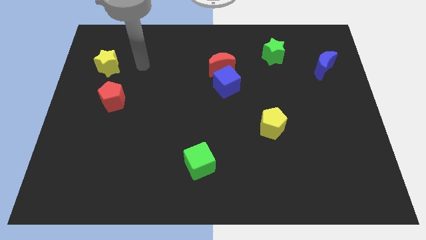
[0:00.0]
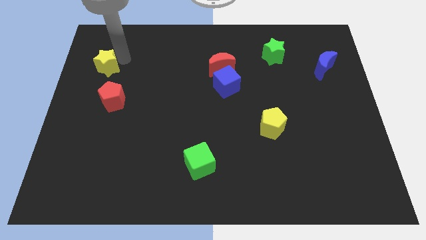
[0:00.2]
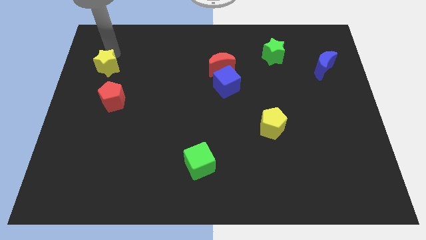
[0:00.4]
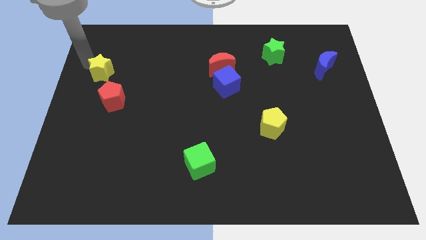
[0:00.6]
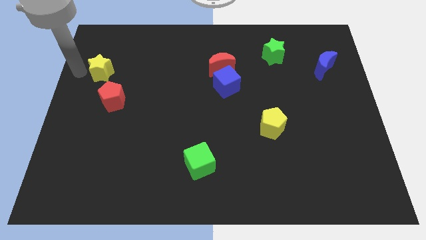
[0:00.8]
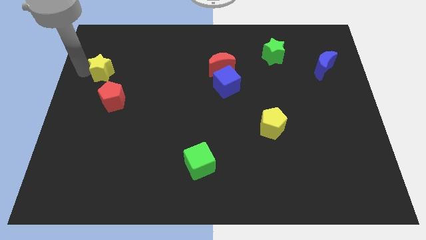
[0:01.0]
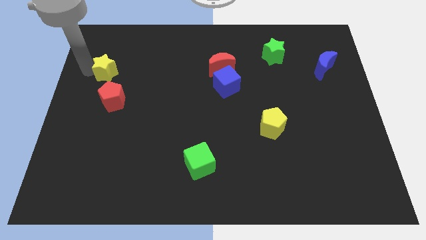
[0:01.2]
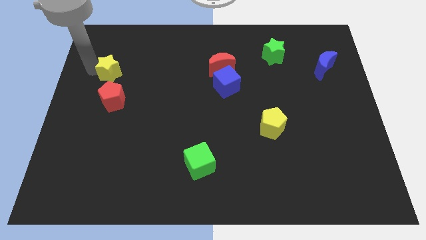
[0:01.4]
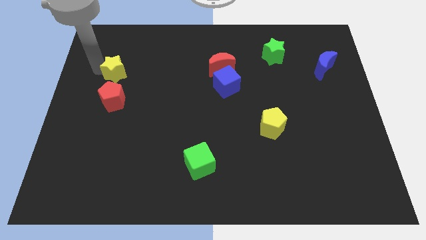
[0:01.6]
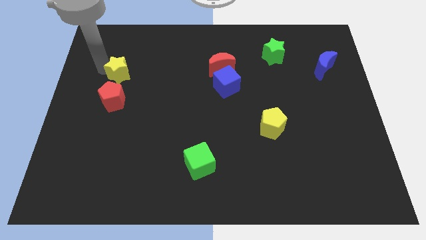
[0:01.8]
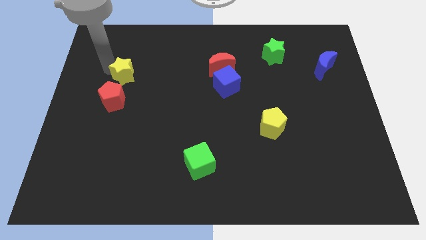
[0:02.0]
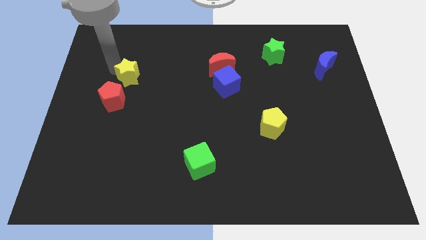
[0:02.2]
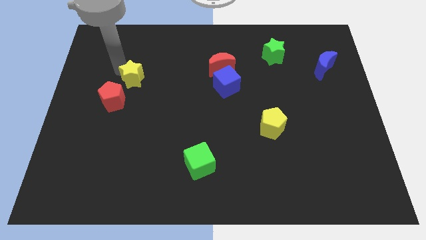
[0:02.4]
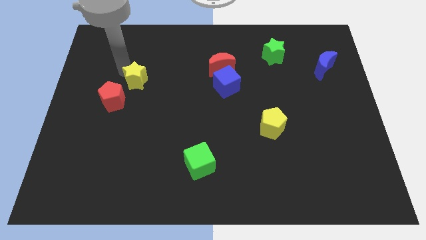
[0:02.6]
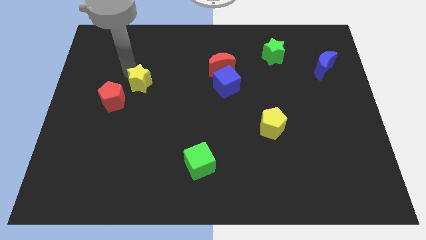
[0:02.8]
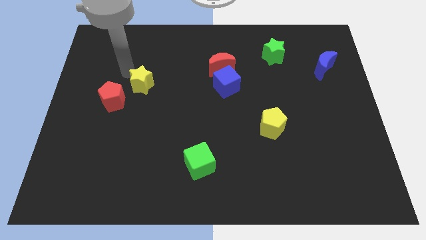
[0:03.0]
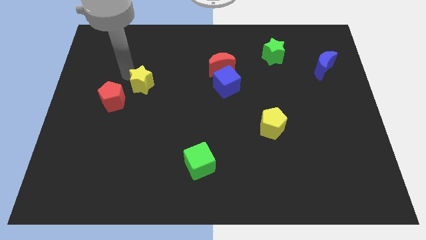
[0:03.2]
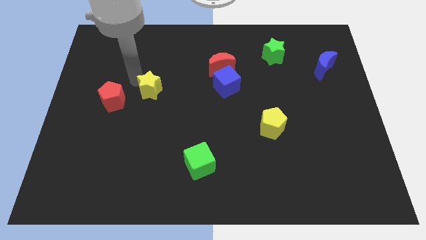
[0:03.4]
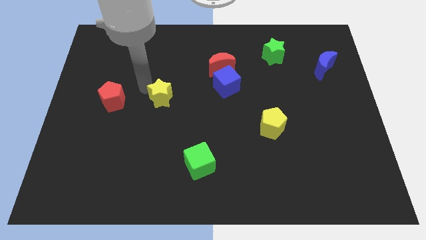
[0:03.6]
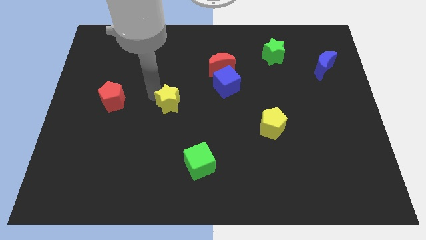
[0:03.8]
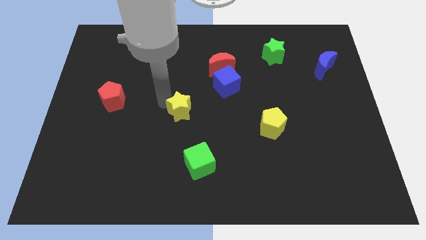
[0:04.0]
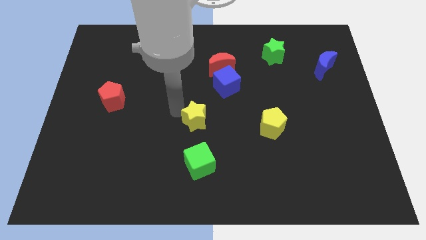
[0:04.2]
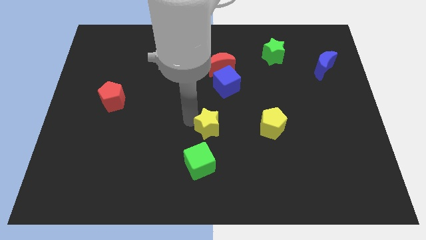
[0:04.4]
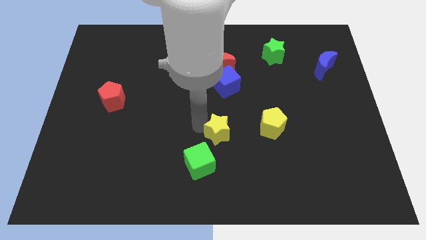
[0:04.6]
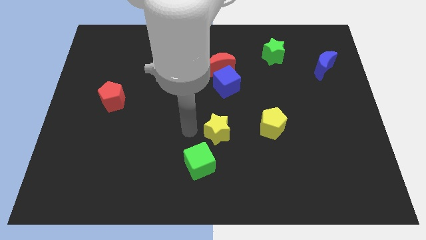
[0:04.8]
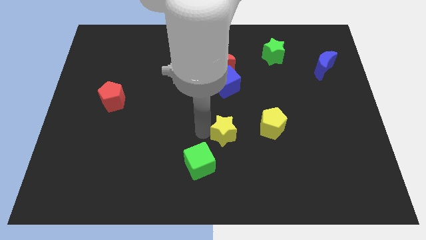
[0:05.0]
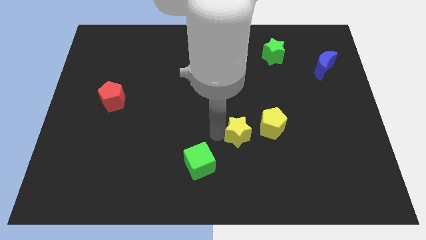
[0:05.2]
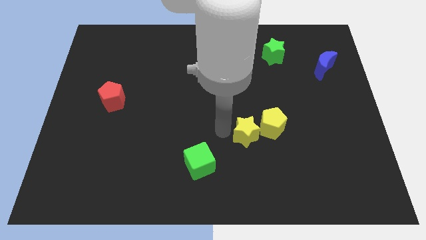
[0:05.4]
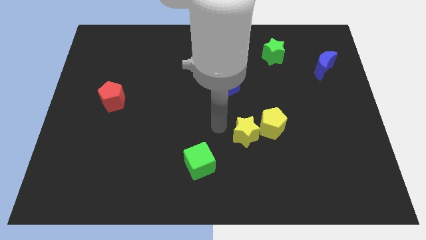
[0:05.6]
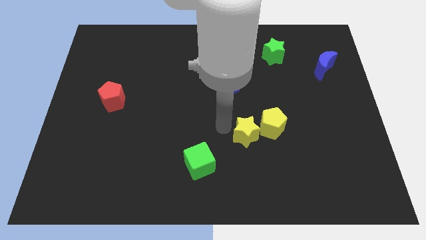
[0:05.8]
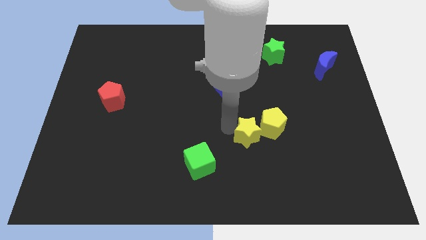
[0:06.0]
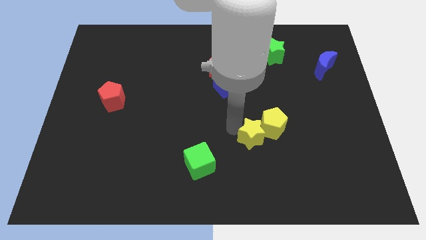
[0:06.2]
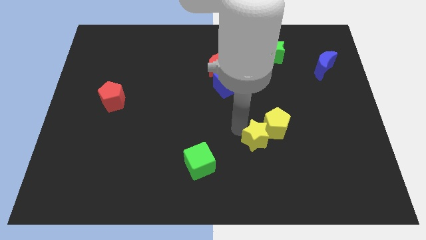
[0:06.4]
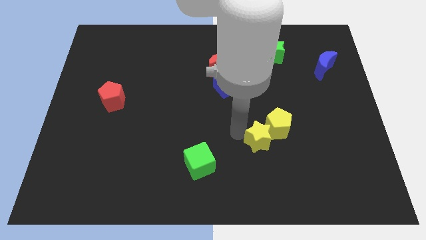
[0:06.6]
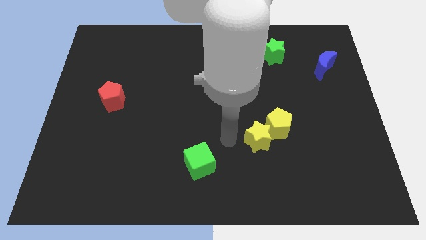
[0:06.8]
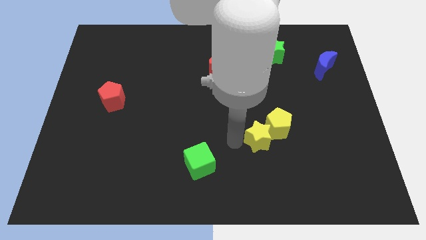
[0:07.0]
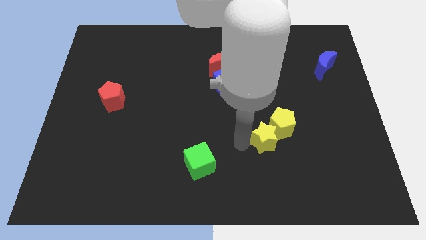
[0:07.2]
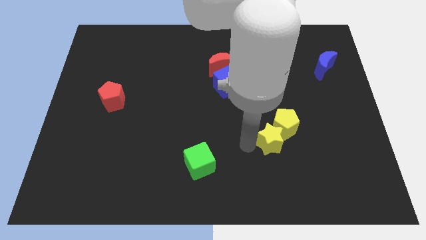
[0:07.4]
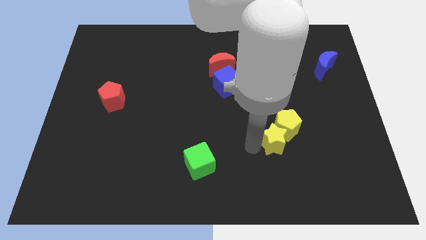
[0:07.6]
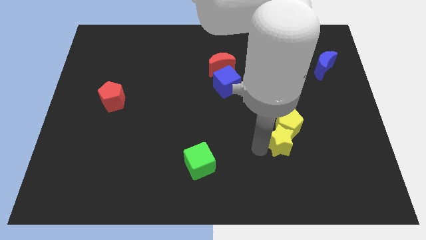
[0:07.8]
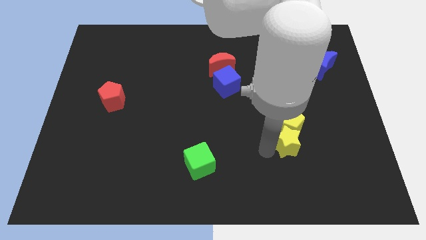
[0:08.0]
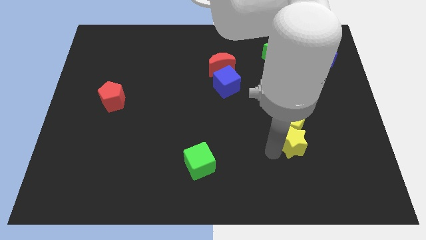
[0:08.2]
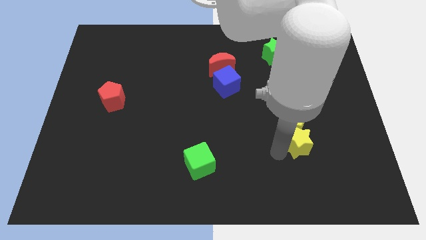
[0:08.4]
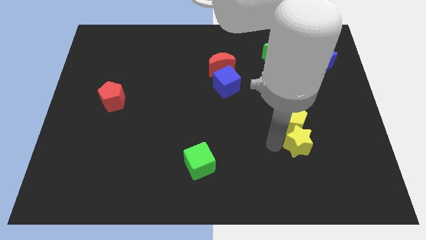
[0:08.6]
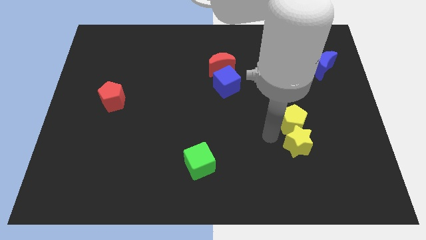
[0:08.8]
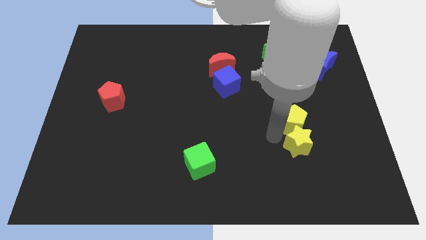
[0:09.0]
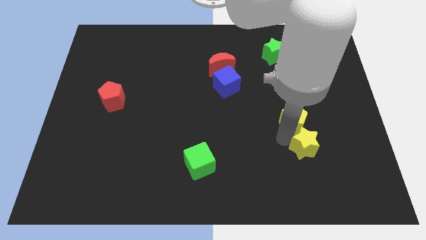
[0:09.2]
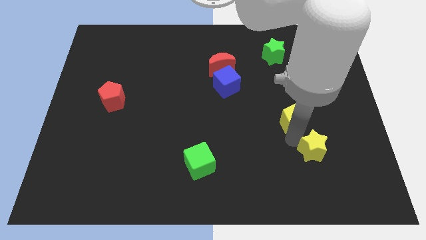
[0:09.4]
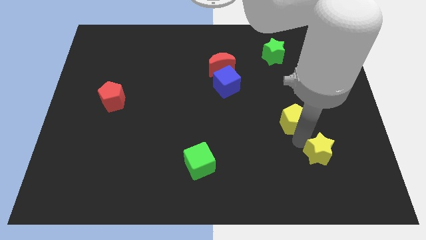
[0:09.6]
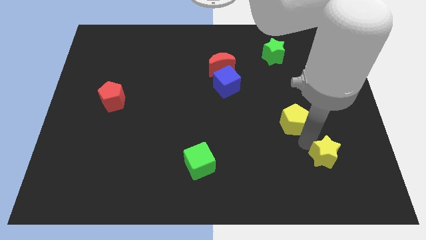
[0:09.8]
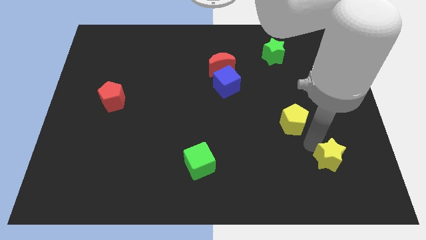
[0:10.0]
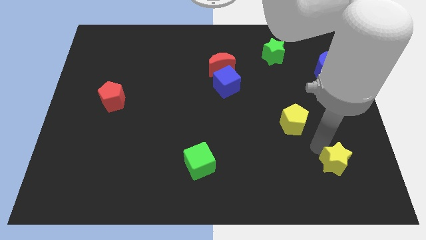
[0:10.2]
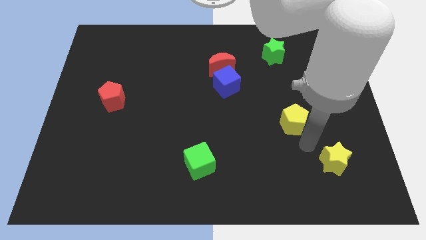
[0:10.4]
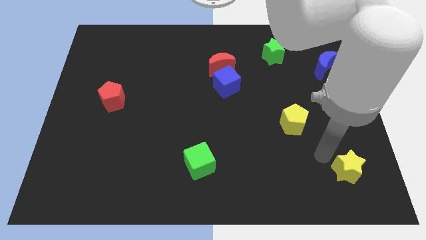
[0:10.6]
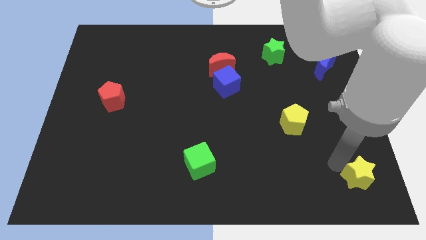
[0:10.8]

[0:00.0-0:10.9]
slide the yellow star to the bottom right corner

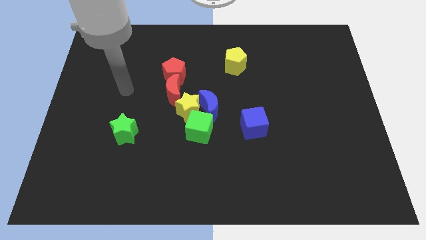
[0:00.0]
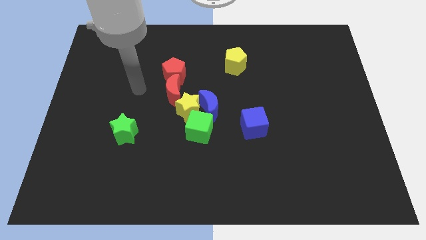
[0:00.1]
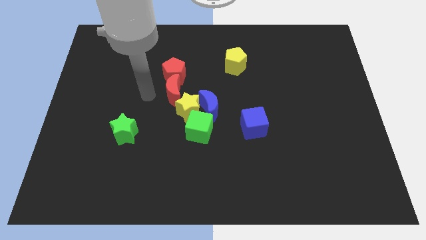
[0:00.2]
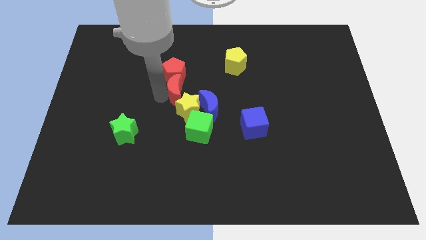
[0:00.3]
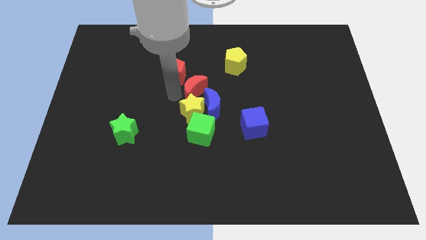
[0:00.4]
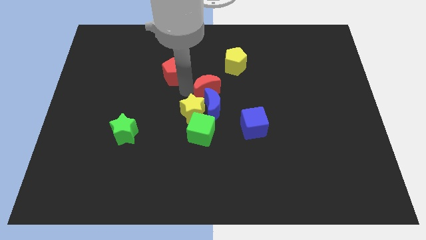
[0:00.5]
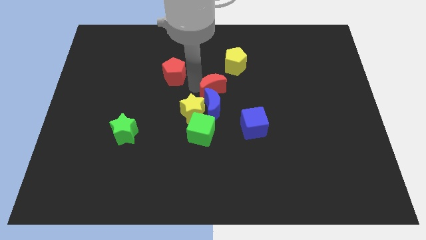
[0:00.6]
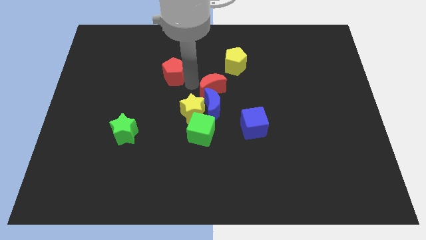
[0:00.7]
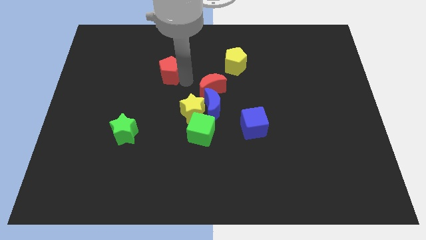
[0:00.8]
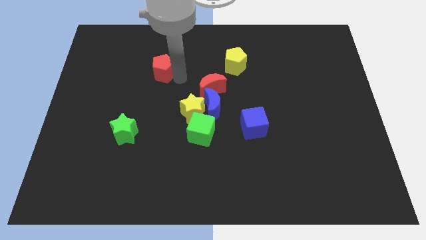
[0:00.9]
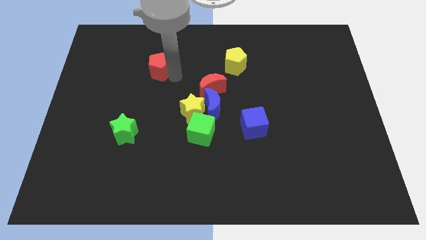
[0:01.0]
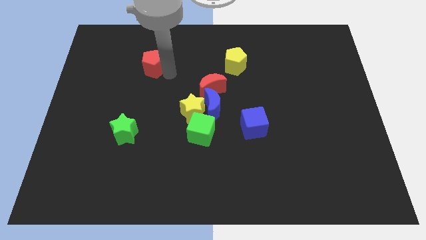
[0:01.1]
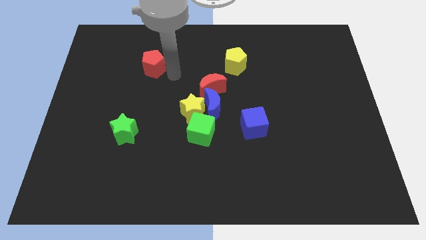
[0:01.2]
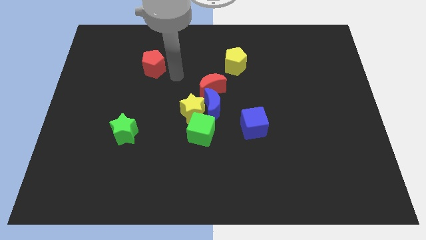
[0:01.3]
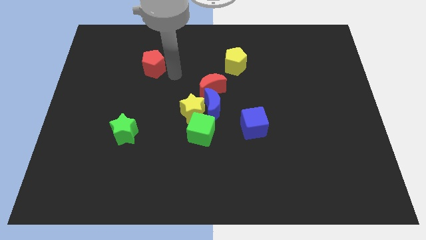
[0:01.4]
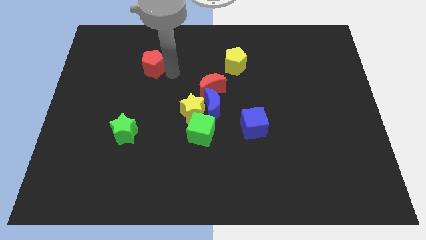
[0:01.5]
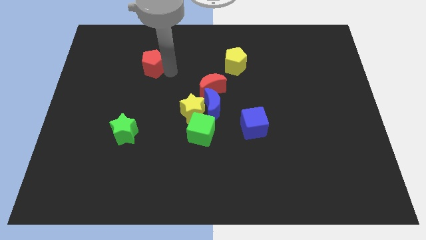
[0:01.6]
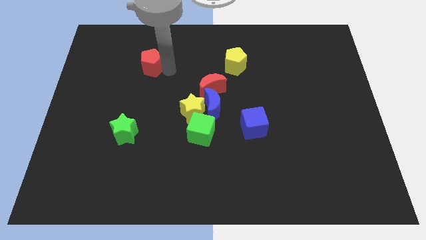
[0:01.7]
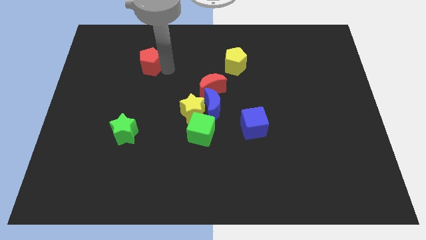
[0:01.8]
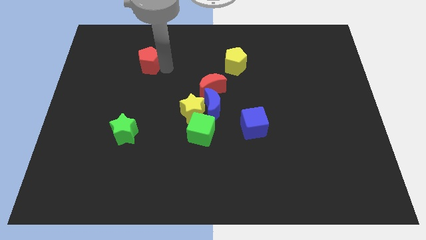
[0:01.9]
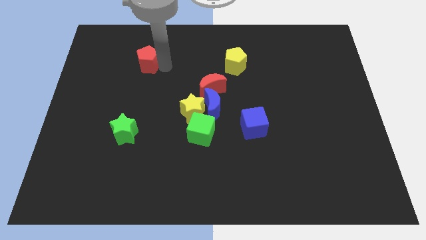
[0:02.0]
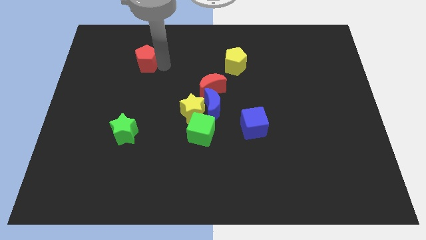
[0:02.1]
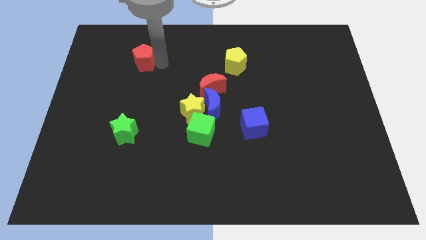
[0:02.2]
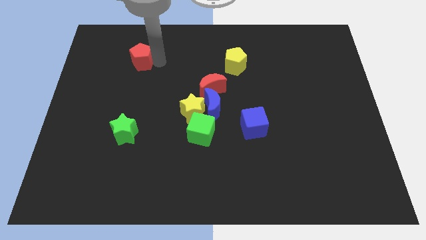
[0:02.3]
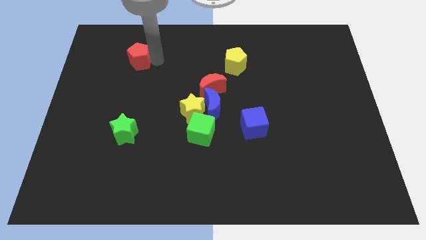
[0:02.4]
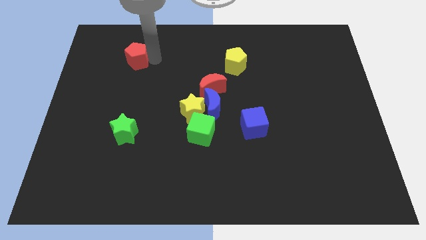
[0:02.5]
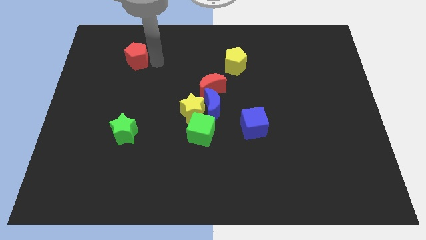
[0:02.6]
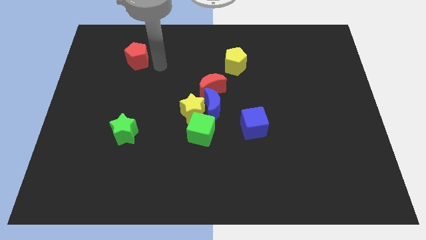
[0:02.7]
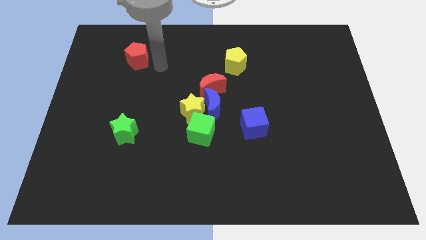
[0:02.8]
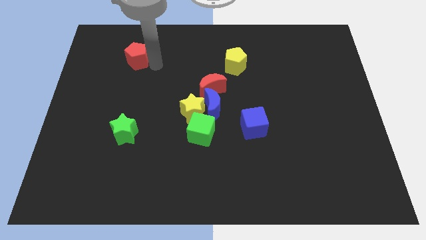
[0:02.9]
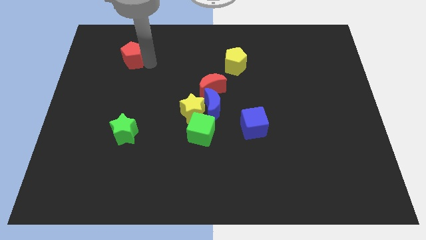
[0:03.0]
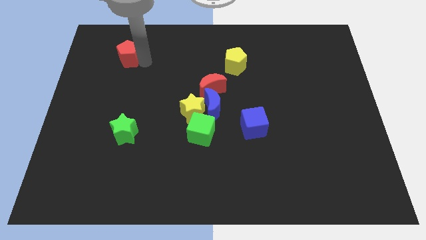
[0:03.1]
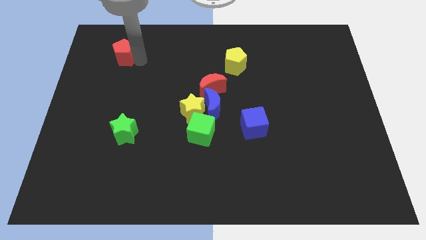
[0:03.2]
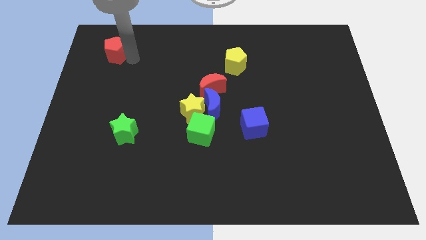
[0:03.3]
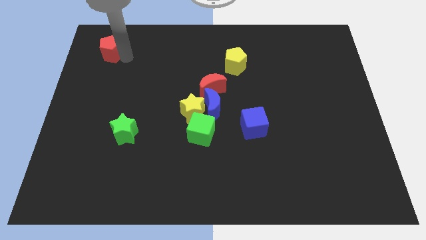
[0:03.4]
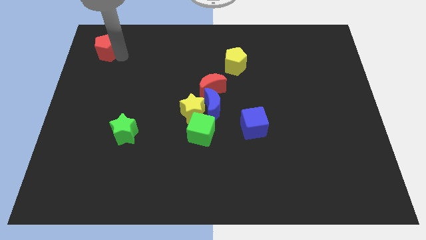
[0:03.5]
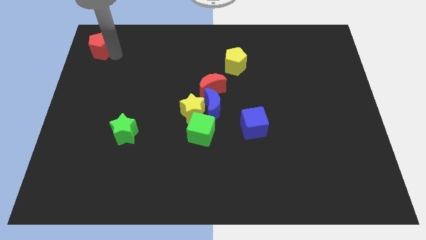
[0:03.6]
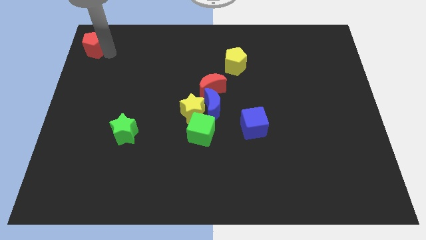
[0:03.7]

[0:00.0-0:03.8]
put the red pentagon to the top left of the board
